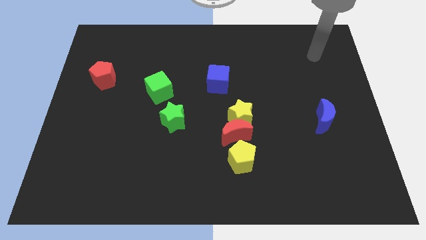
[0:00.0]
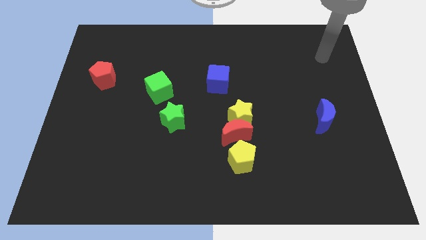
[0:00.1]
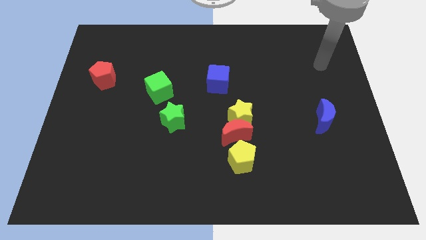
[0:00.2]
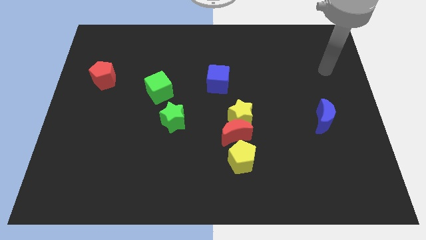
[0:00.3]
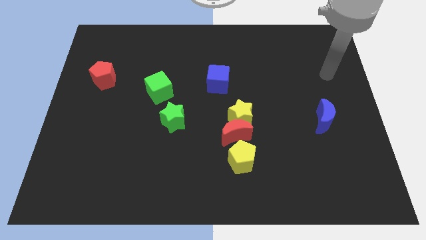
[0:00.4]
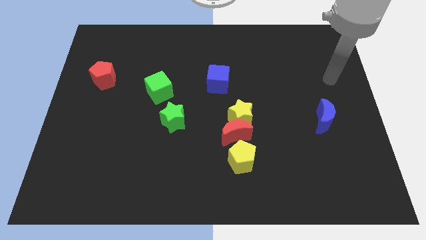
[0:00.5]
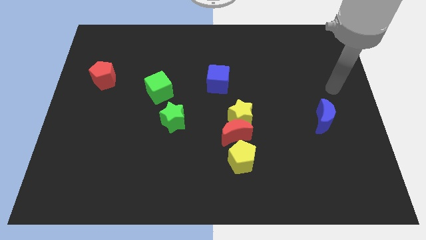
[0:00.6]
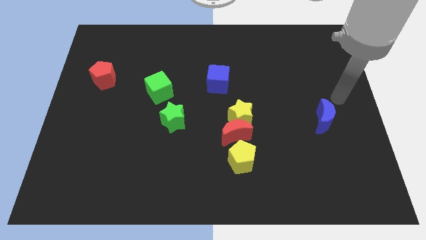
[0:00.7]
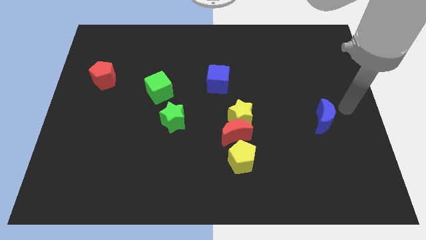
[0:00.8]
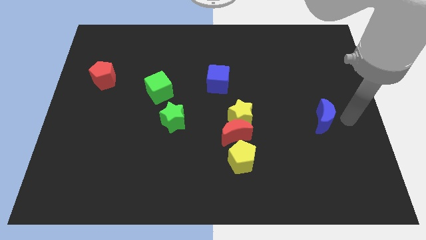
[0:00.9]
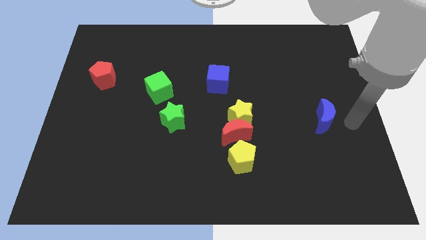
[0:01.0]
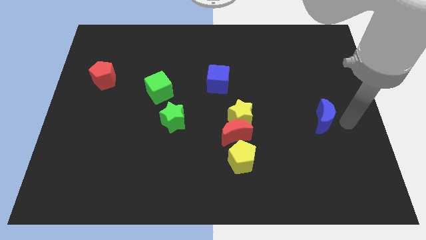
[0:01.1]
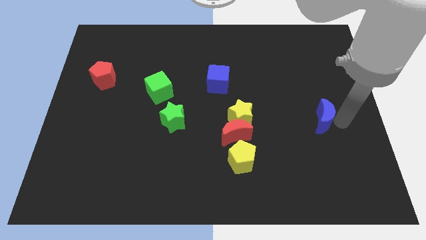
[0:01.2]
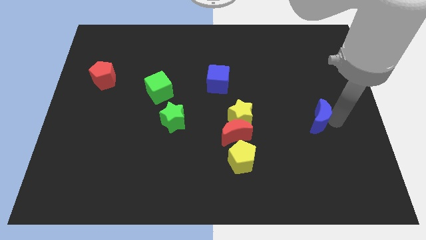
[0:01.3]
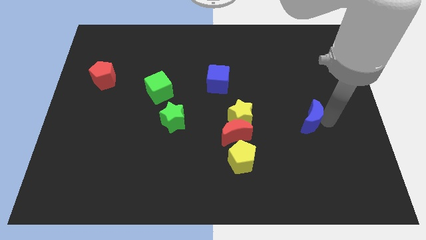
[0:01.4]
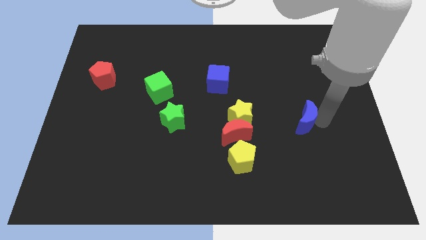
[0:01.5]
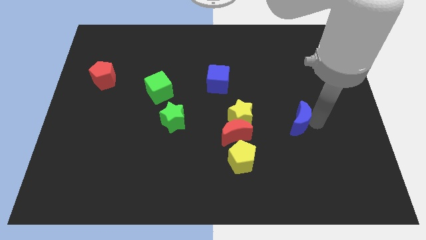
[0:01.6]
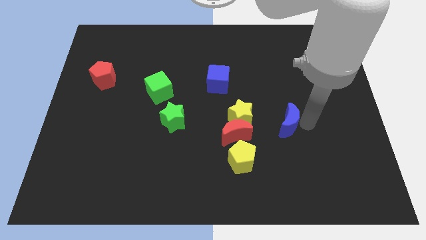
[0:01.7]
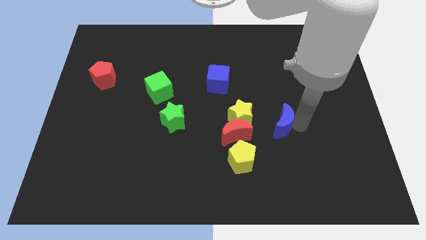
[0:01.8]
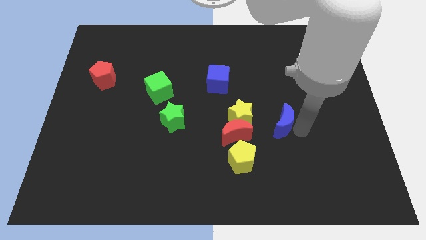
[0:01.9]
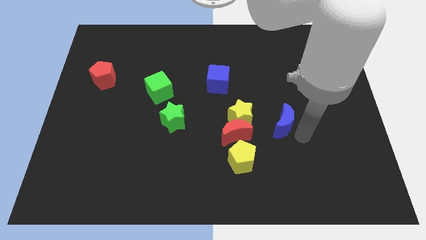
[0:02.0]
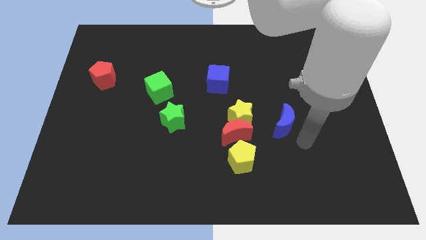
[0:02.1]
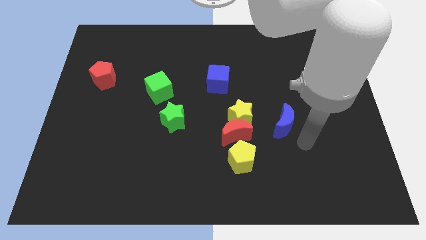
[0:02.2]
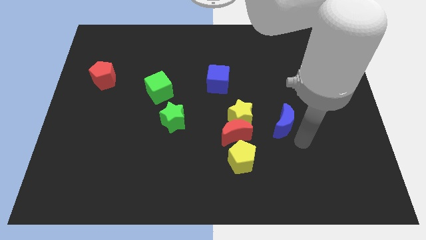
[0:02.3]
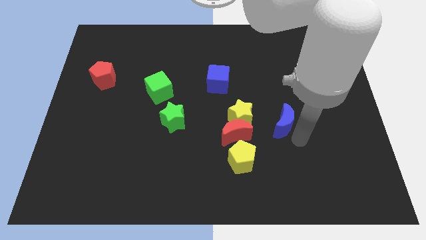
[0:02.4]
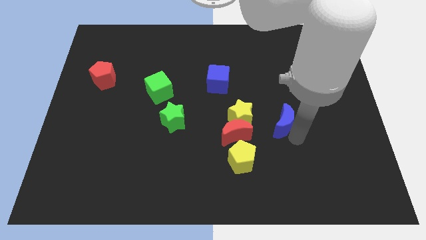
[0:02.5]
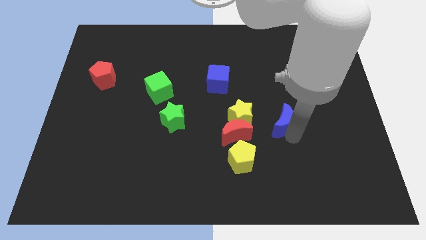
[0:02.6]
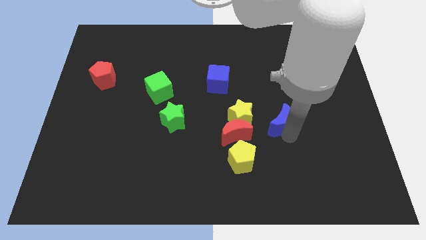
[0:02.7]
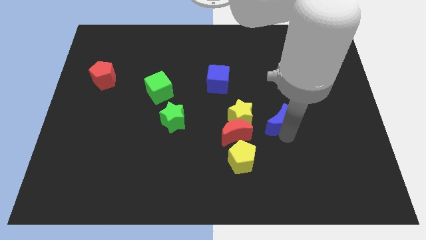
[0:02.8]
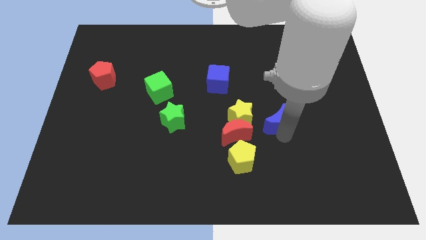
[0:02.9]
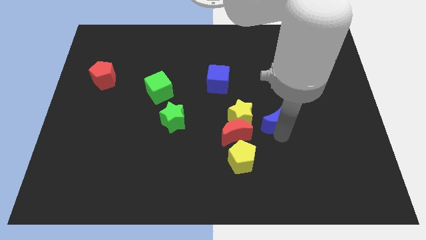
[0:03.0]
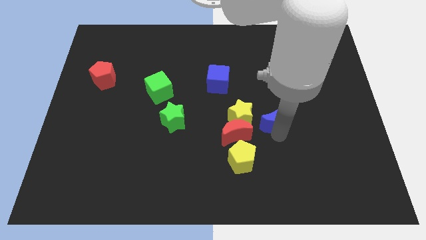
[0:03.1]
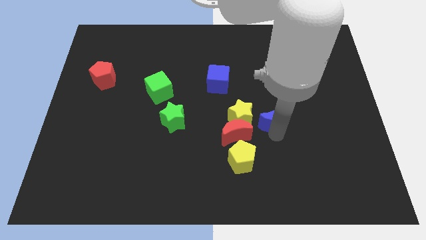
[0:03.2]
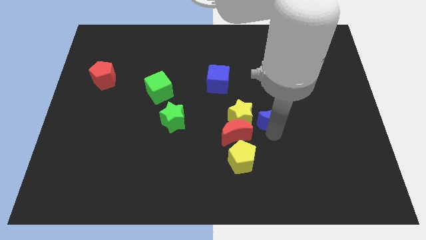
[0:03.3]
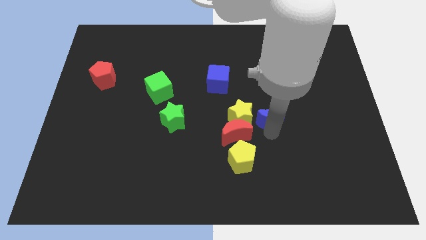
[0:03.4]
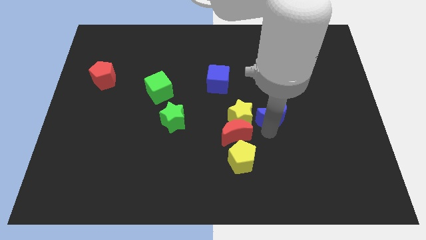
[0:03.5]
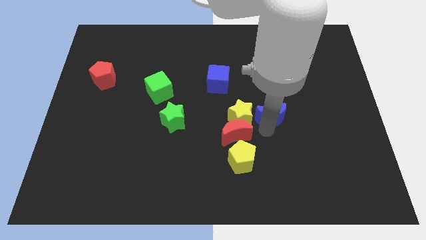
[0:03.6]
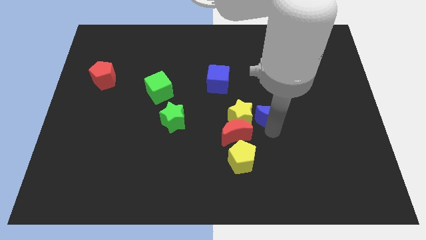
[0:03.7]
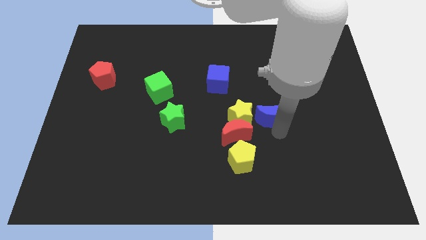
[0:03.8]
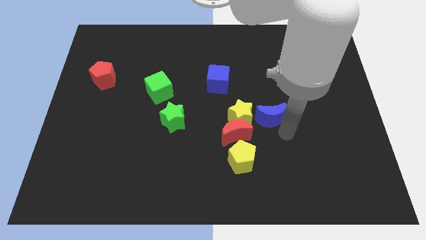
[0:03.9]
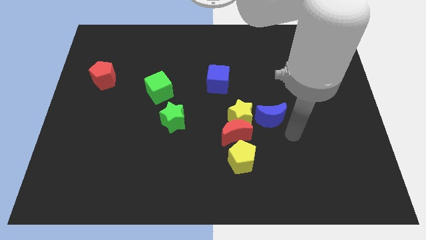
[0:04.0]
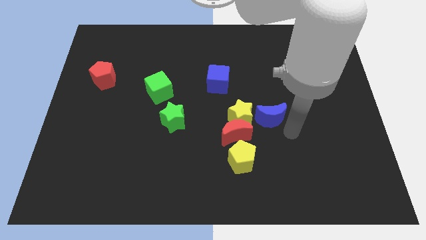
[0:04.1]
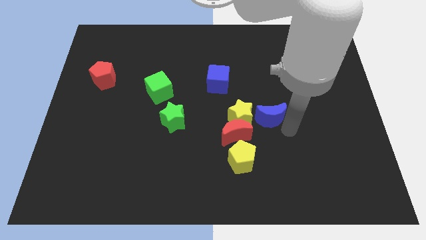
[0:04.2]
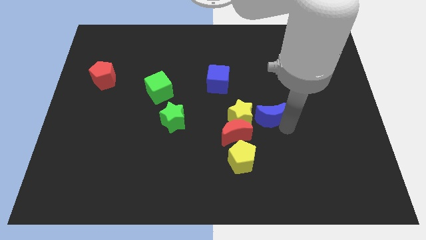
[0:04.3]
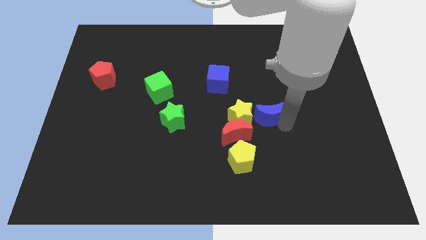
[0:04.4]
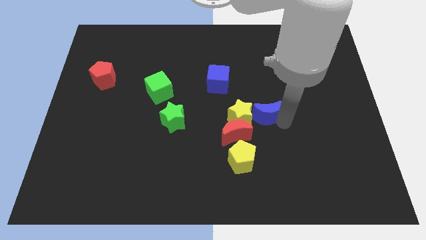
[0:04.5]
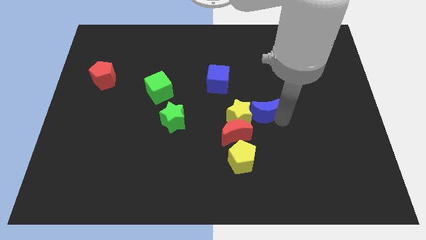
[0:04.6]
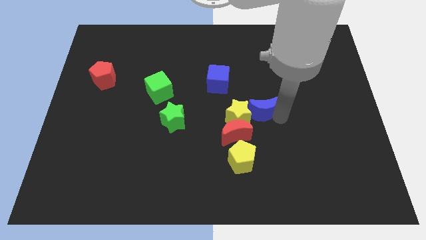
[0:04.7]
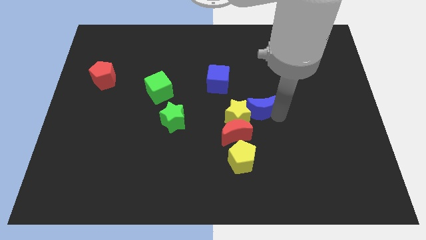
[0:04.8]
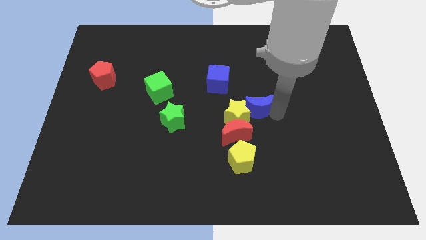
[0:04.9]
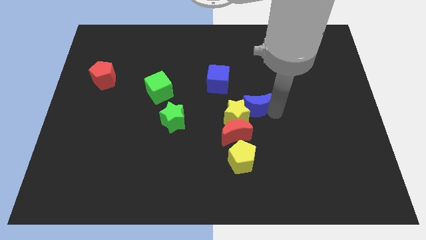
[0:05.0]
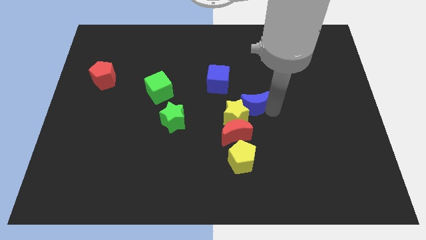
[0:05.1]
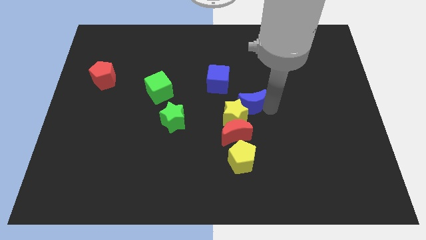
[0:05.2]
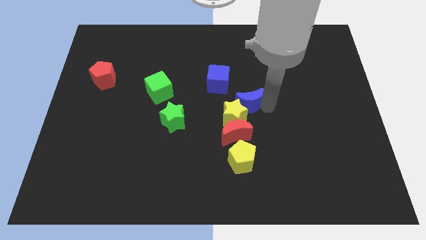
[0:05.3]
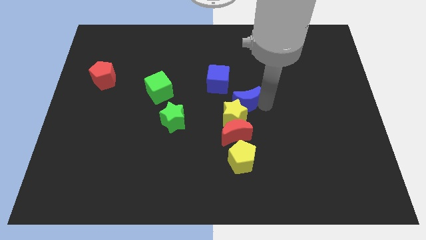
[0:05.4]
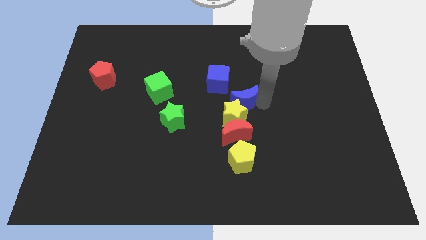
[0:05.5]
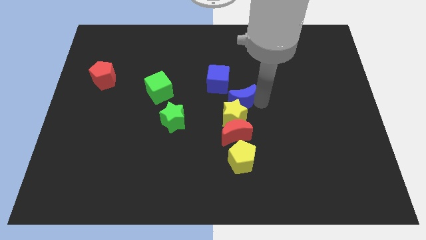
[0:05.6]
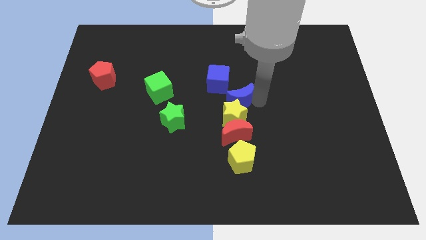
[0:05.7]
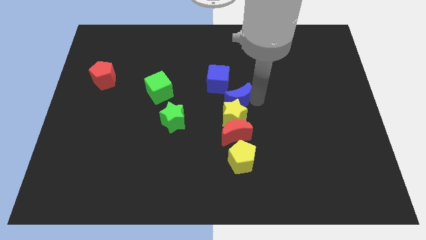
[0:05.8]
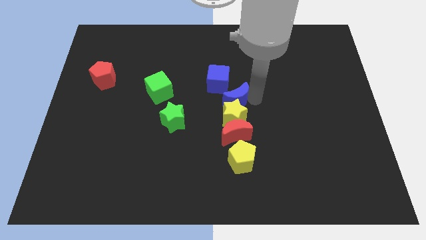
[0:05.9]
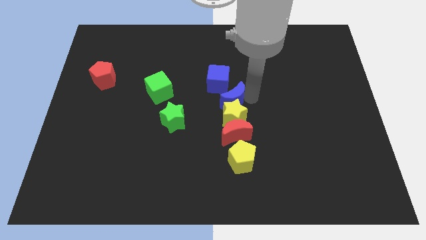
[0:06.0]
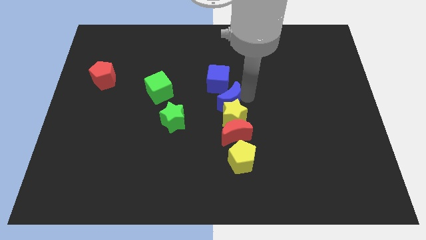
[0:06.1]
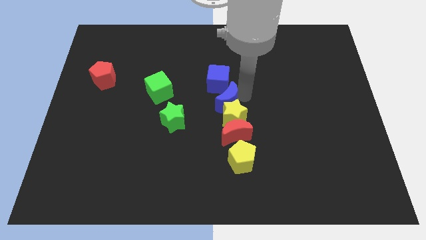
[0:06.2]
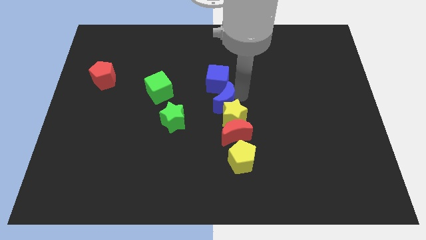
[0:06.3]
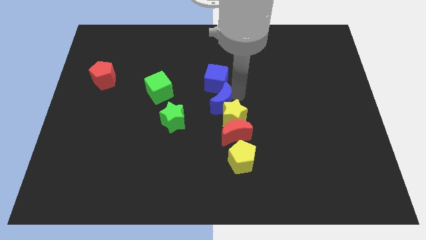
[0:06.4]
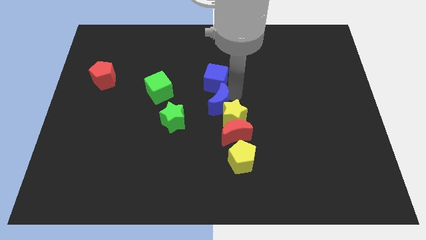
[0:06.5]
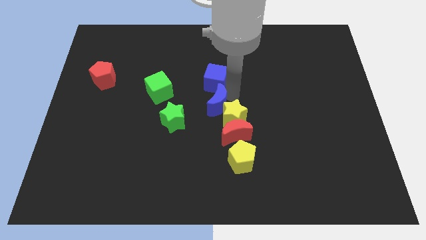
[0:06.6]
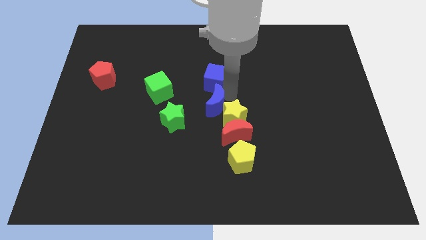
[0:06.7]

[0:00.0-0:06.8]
push the blue moon to the right side of the green cube

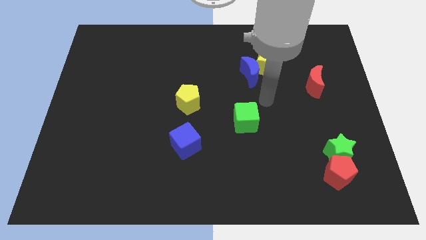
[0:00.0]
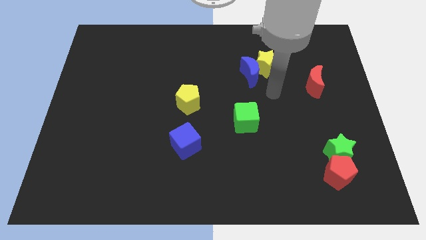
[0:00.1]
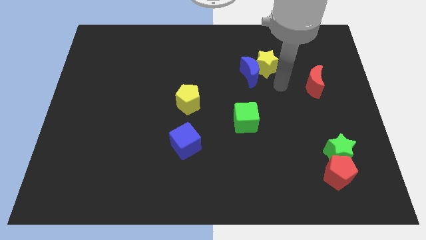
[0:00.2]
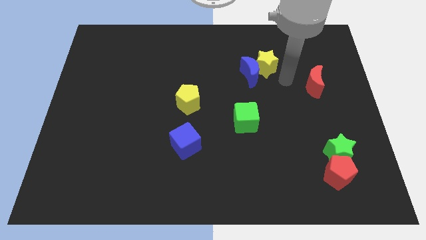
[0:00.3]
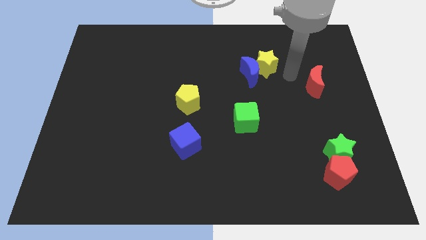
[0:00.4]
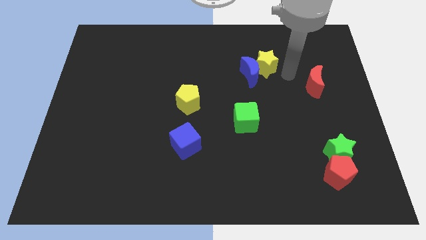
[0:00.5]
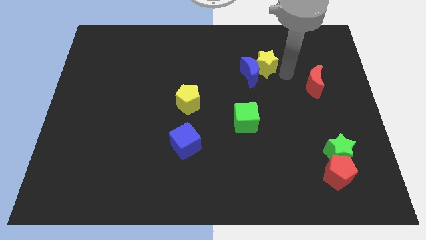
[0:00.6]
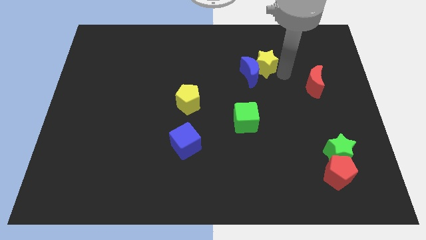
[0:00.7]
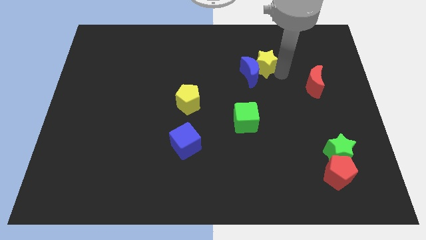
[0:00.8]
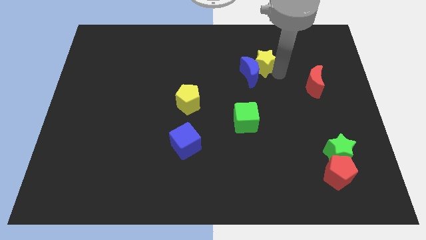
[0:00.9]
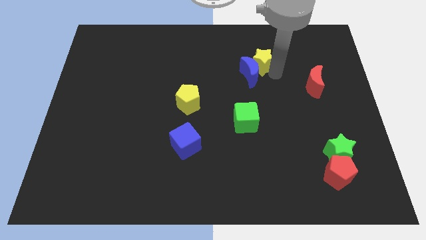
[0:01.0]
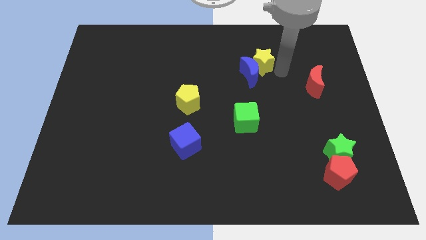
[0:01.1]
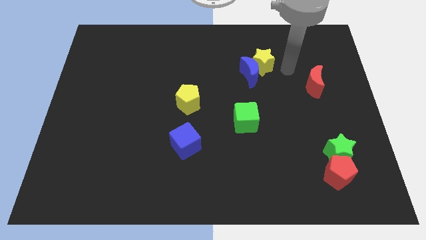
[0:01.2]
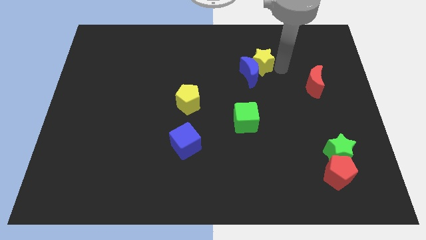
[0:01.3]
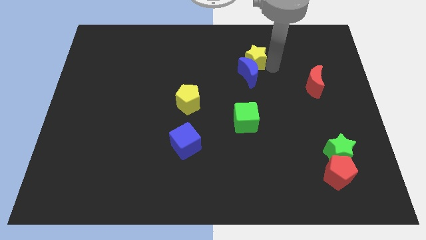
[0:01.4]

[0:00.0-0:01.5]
push the yellow star to the top left of the blue moon
